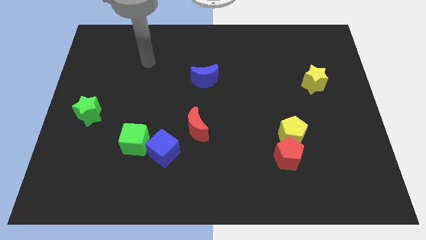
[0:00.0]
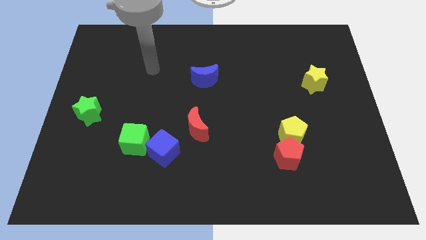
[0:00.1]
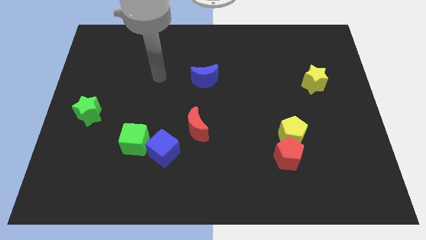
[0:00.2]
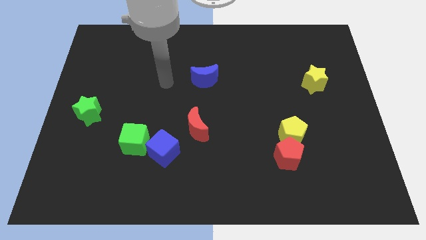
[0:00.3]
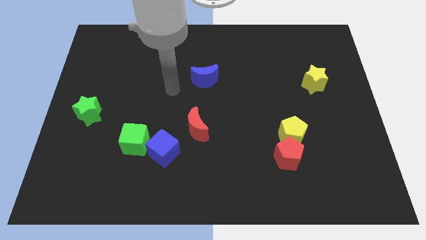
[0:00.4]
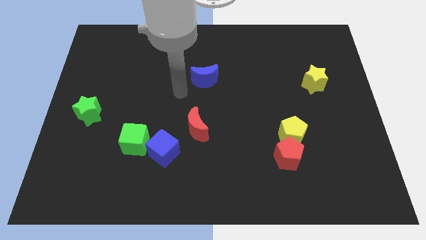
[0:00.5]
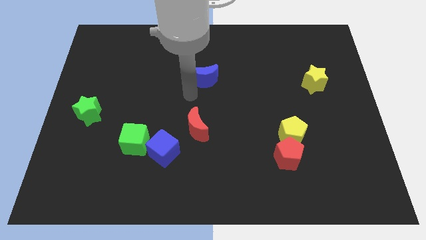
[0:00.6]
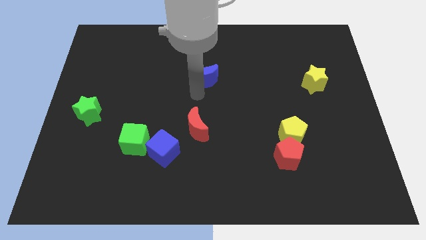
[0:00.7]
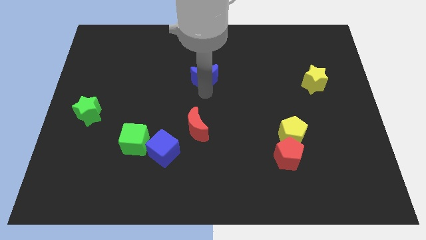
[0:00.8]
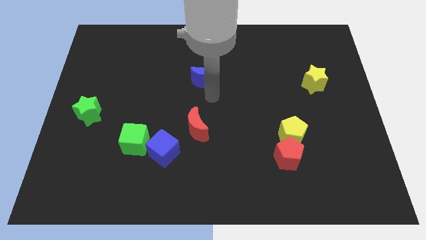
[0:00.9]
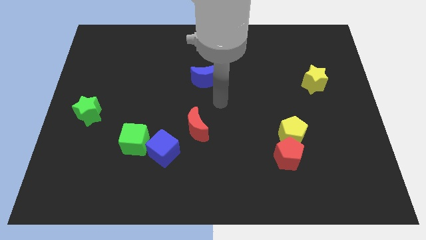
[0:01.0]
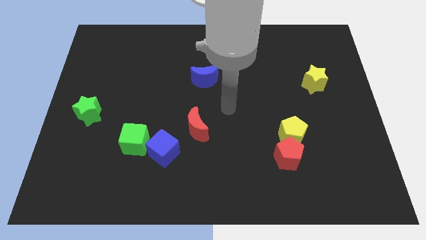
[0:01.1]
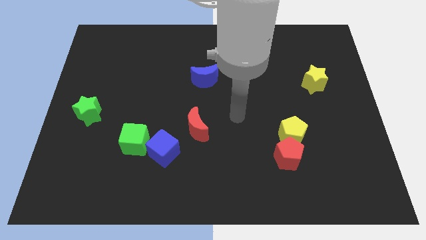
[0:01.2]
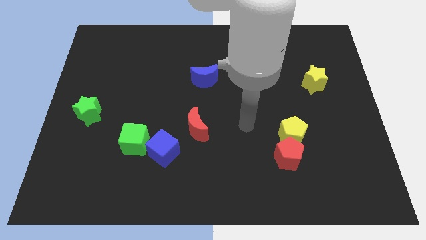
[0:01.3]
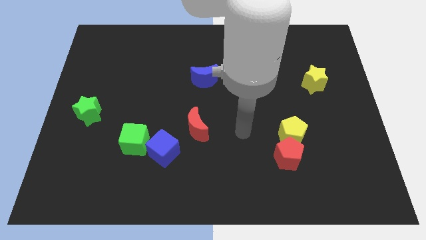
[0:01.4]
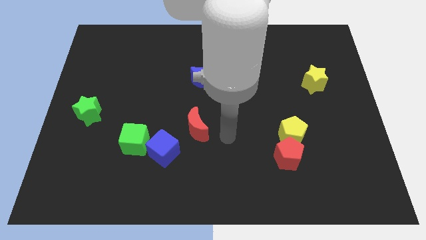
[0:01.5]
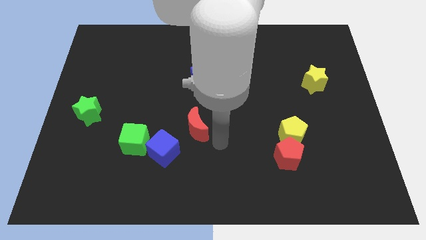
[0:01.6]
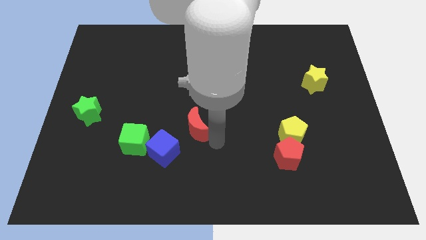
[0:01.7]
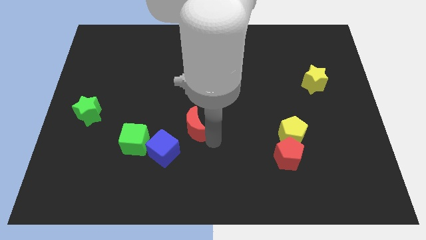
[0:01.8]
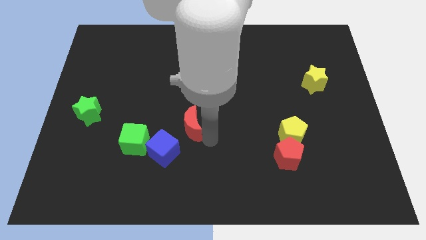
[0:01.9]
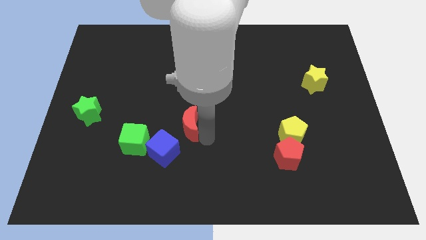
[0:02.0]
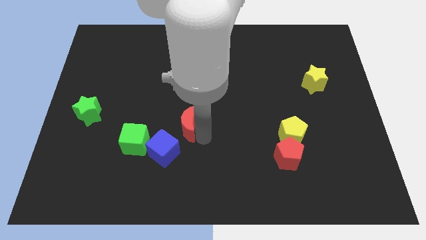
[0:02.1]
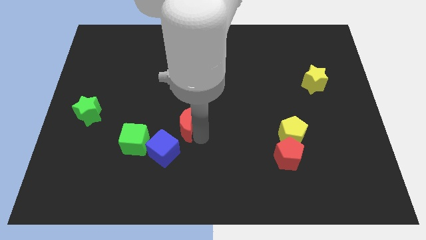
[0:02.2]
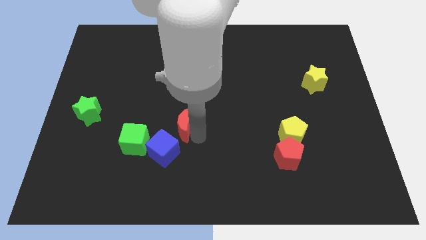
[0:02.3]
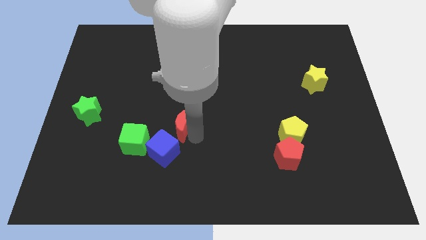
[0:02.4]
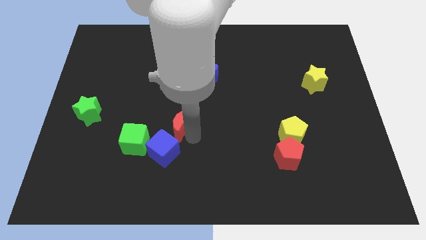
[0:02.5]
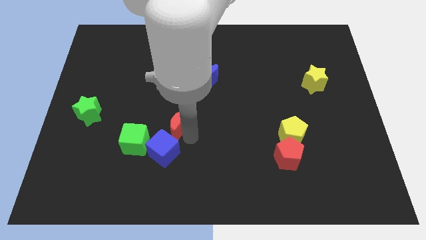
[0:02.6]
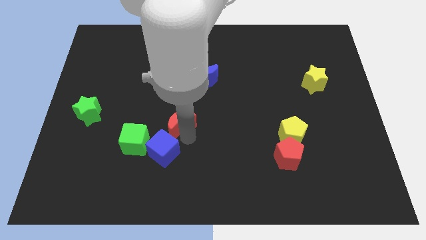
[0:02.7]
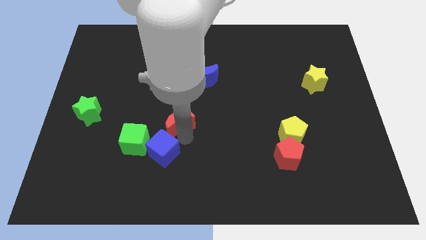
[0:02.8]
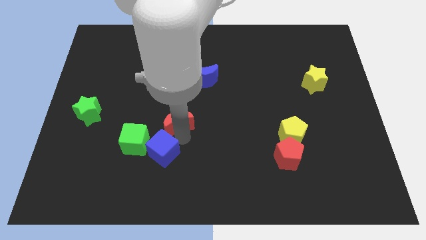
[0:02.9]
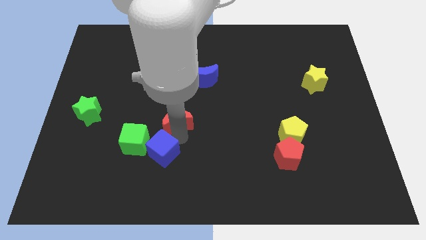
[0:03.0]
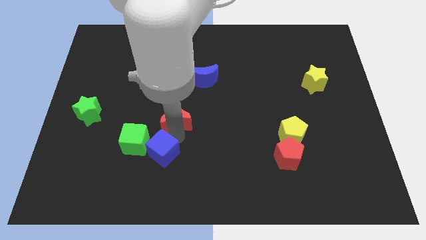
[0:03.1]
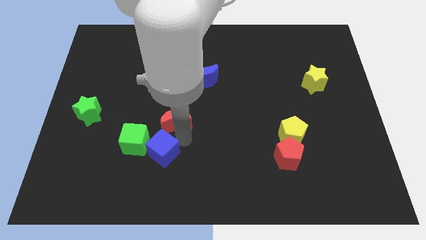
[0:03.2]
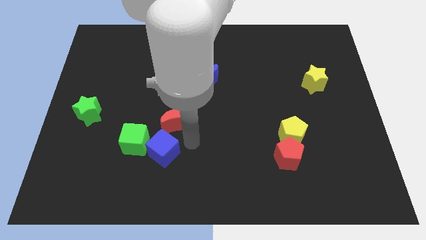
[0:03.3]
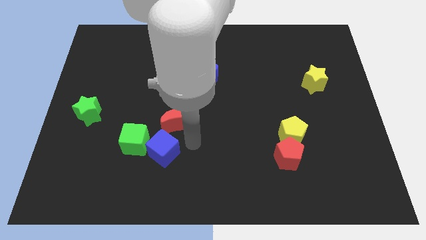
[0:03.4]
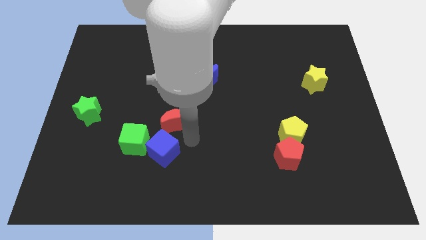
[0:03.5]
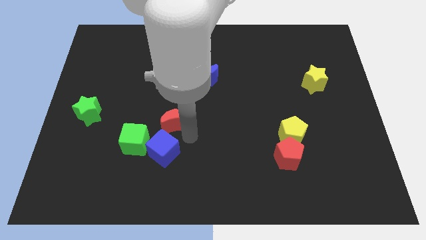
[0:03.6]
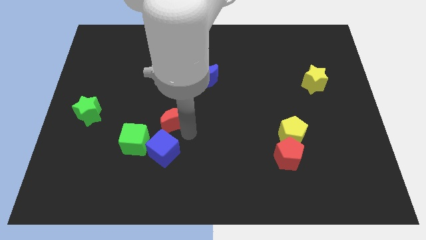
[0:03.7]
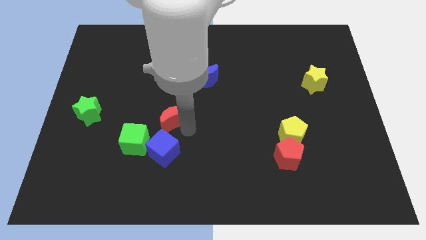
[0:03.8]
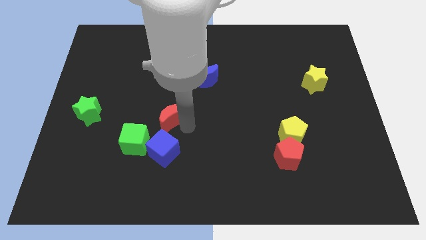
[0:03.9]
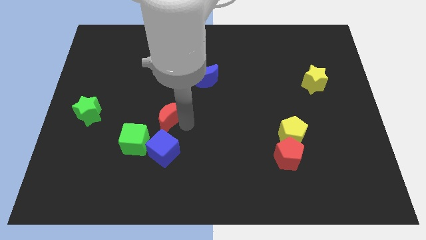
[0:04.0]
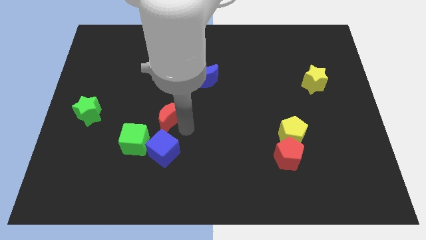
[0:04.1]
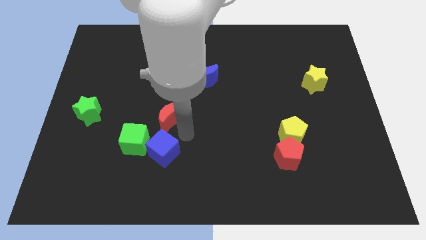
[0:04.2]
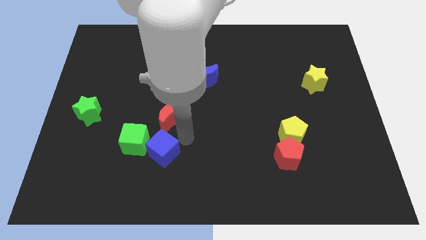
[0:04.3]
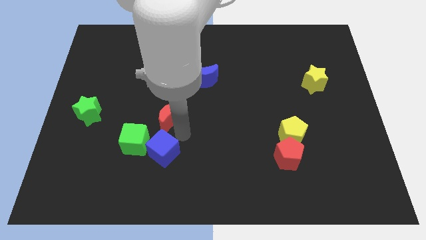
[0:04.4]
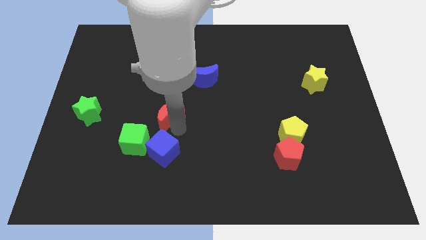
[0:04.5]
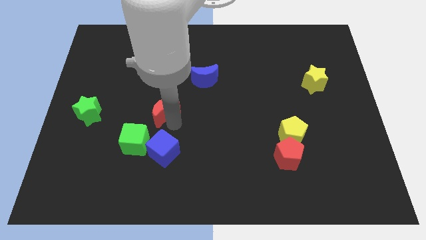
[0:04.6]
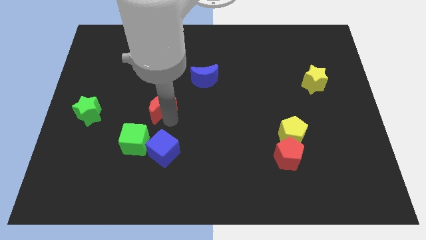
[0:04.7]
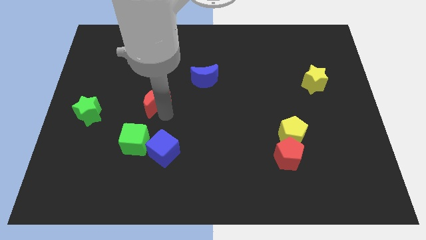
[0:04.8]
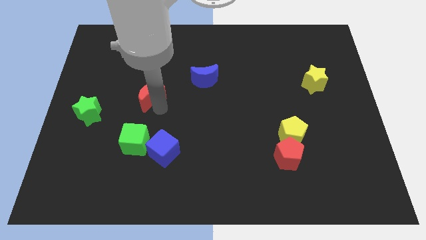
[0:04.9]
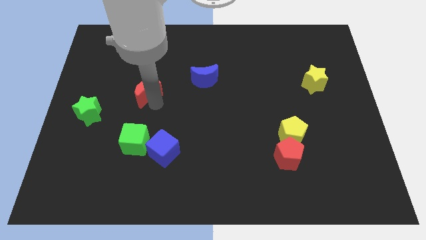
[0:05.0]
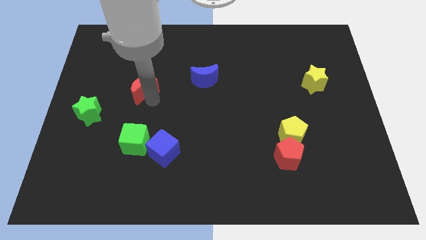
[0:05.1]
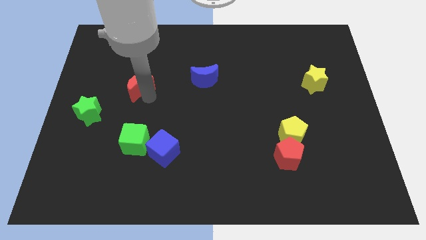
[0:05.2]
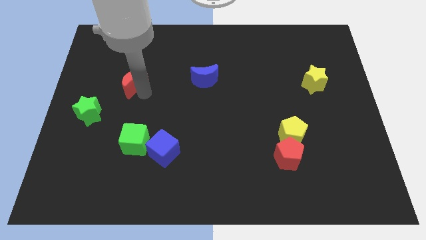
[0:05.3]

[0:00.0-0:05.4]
slide the red moon up and left

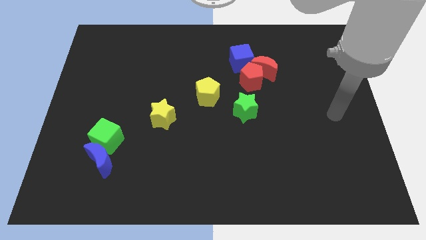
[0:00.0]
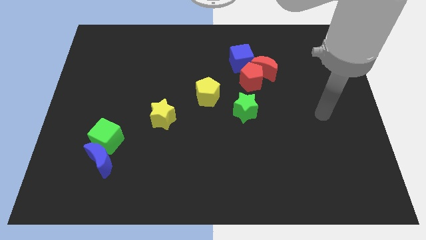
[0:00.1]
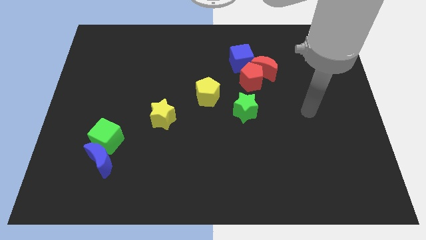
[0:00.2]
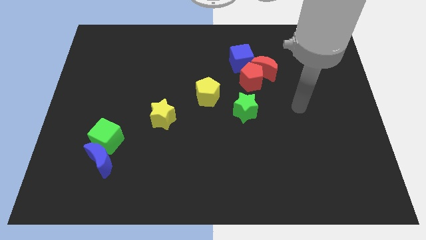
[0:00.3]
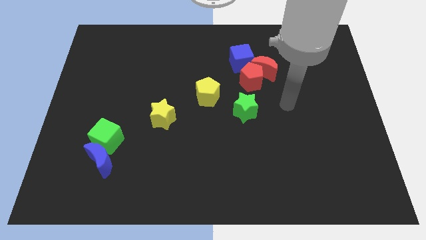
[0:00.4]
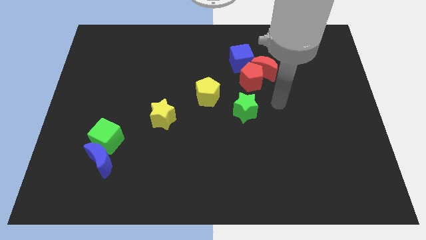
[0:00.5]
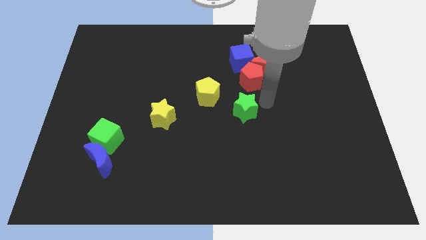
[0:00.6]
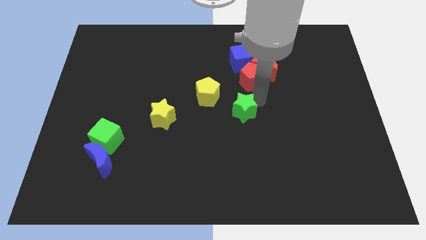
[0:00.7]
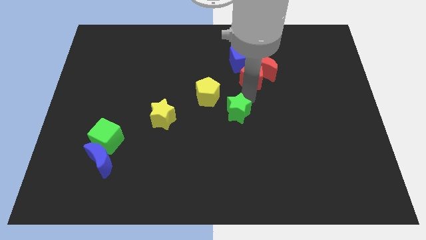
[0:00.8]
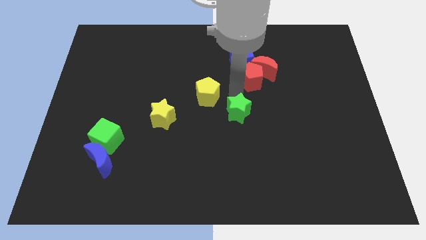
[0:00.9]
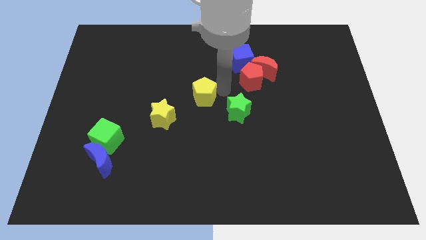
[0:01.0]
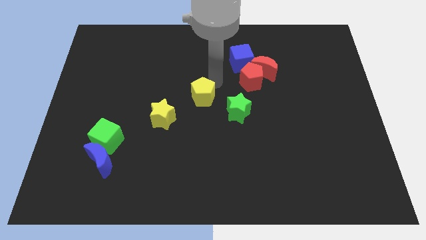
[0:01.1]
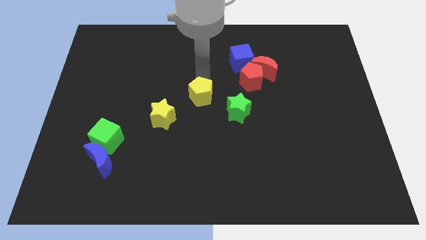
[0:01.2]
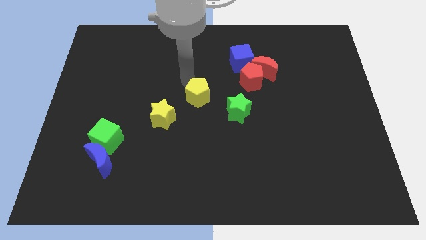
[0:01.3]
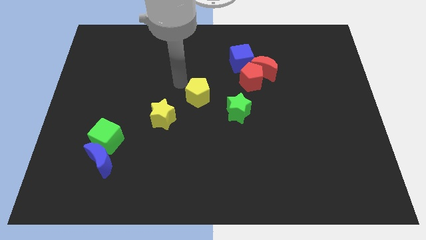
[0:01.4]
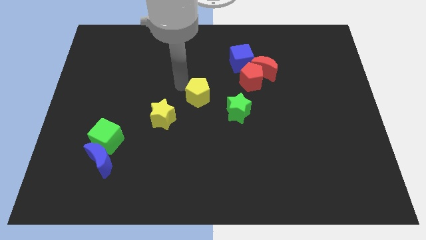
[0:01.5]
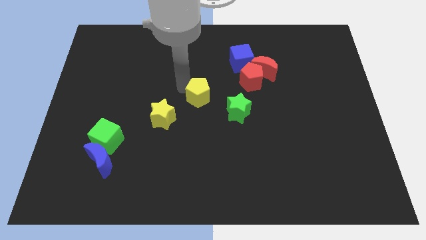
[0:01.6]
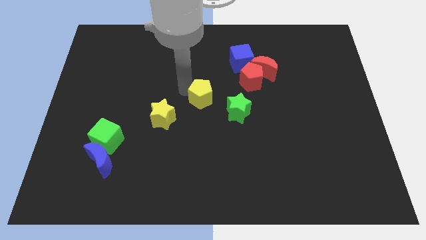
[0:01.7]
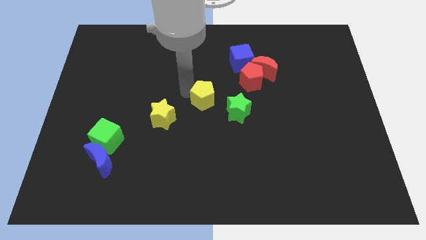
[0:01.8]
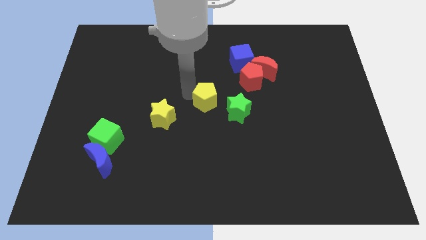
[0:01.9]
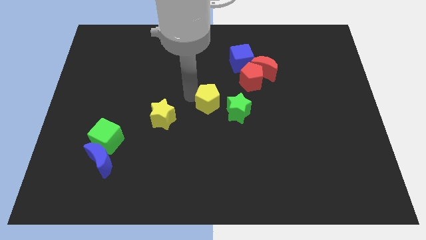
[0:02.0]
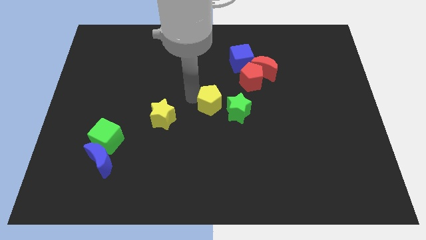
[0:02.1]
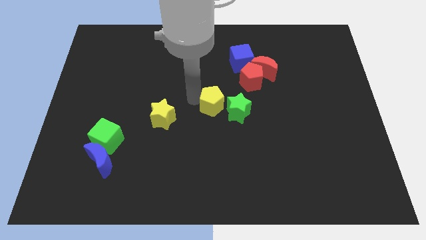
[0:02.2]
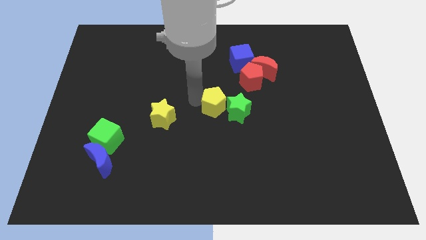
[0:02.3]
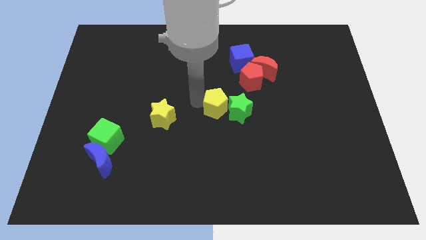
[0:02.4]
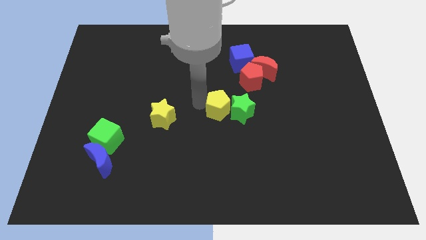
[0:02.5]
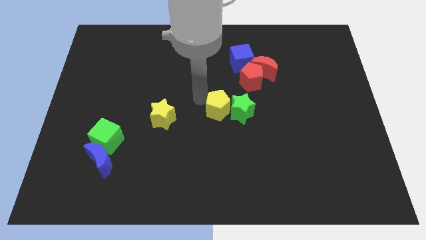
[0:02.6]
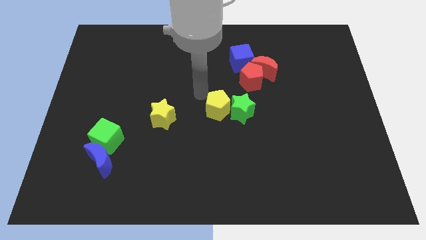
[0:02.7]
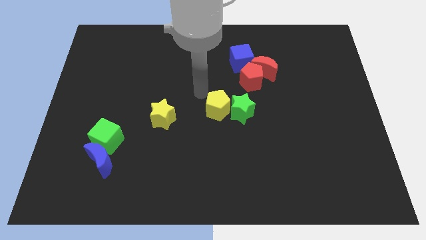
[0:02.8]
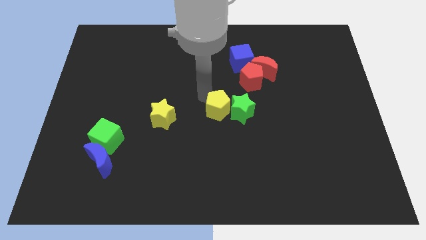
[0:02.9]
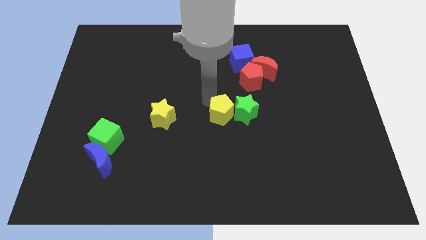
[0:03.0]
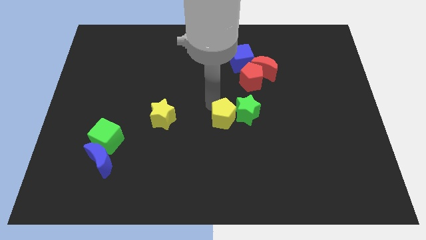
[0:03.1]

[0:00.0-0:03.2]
move the yellow pentagon a little bit down and to the right
